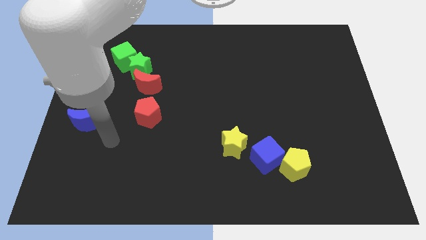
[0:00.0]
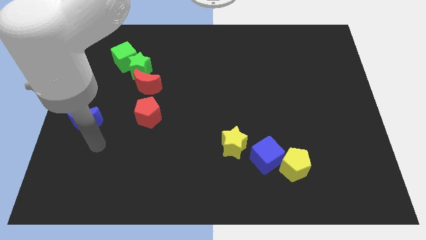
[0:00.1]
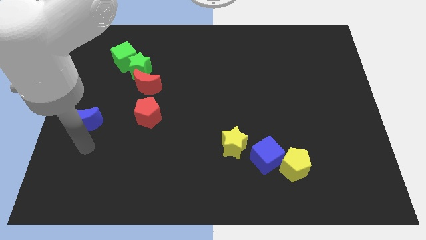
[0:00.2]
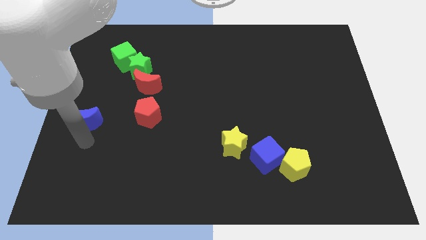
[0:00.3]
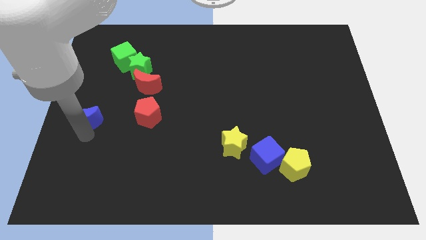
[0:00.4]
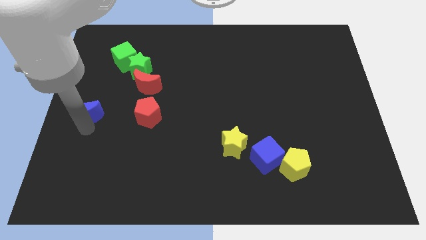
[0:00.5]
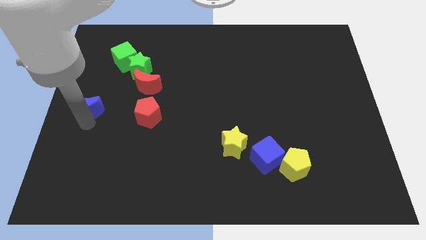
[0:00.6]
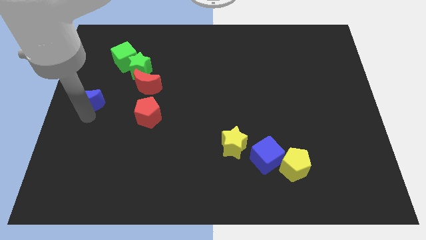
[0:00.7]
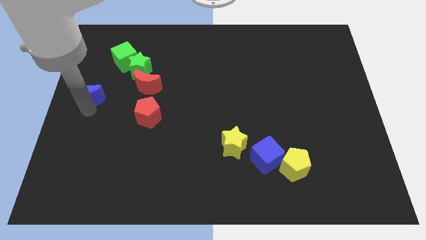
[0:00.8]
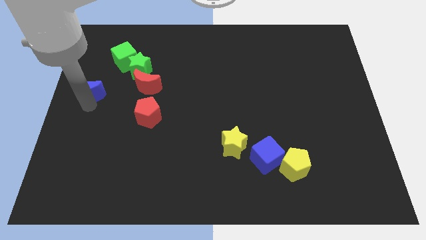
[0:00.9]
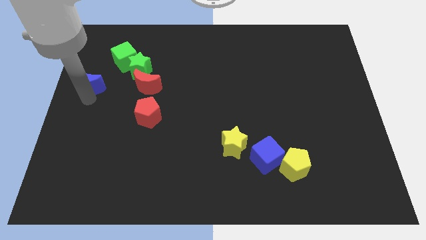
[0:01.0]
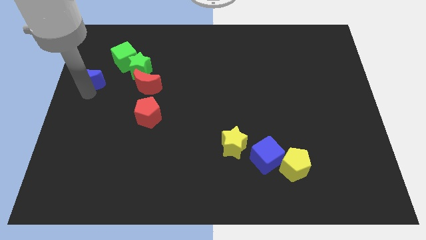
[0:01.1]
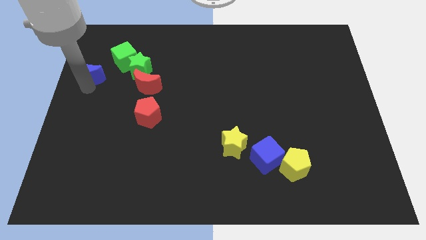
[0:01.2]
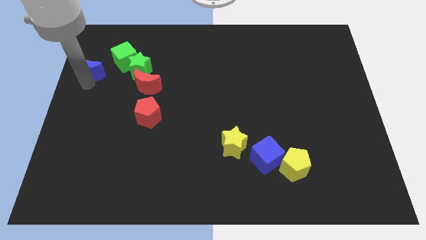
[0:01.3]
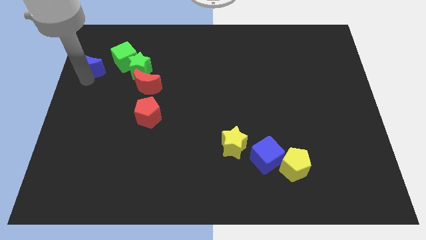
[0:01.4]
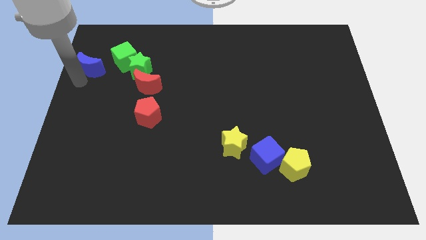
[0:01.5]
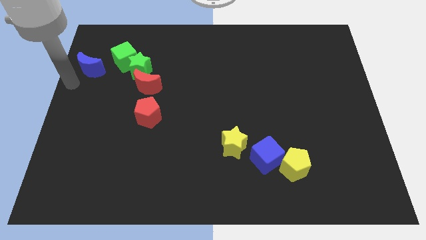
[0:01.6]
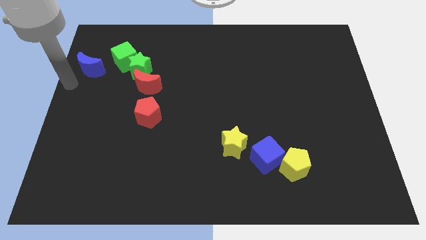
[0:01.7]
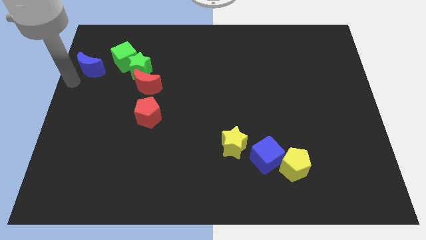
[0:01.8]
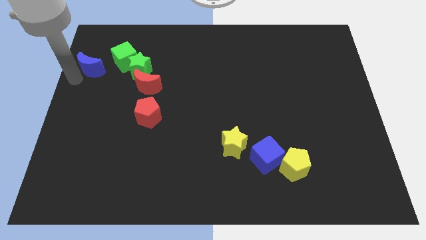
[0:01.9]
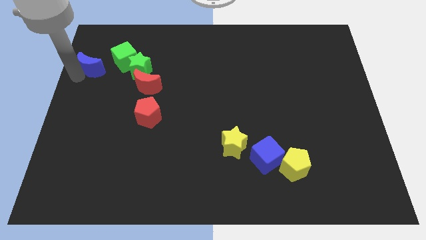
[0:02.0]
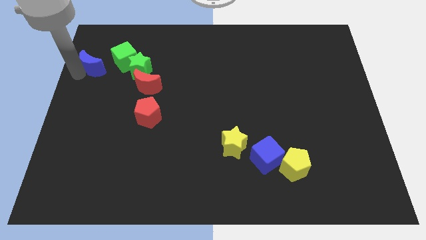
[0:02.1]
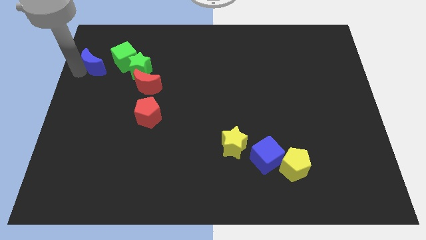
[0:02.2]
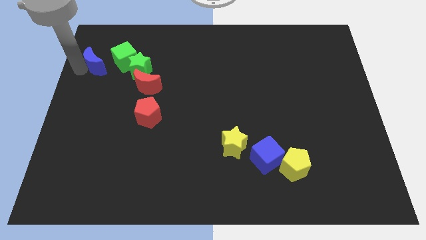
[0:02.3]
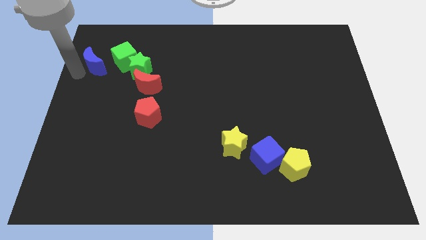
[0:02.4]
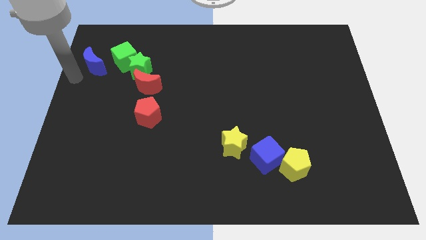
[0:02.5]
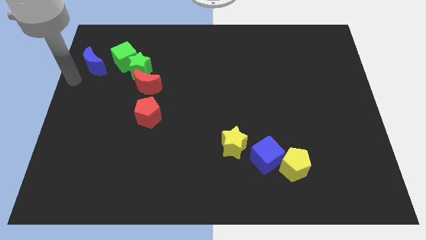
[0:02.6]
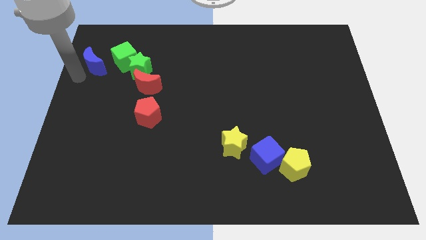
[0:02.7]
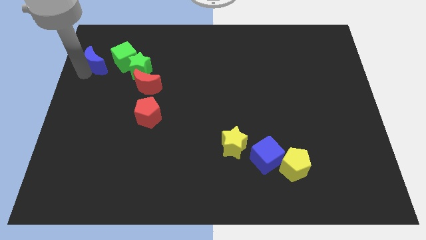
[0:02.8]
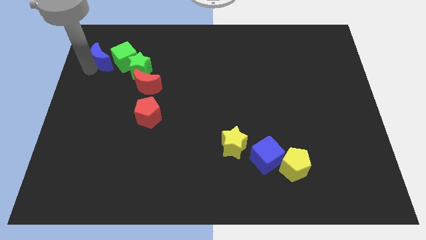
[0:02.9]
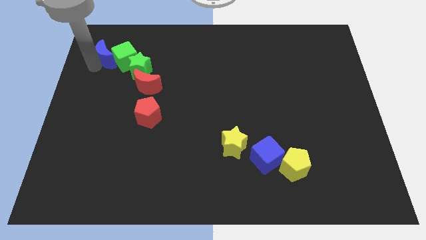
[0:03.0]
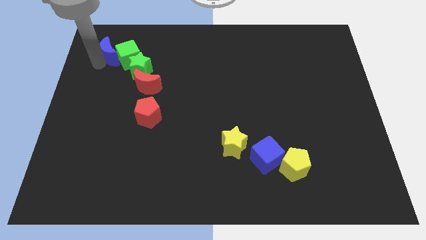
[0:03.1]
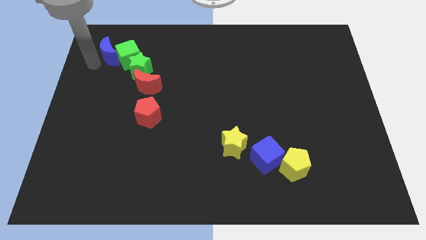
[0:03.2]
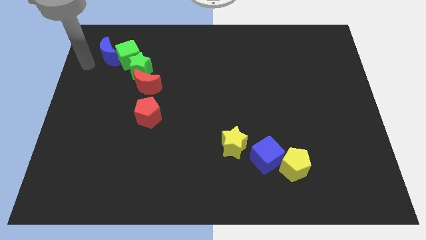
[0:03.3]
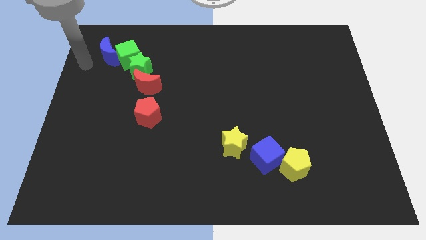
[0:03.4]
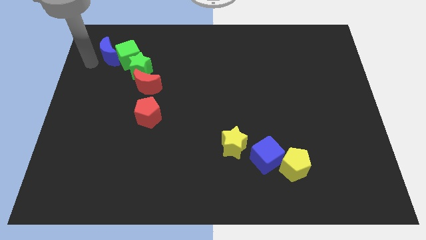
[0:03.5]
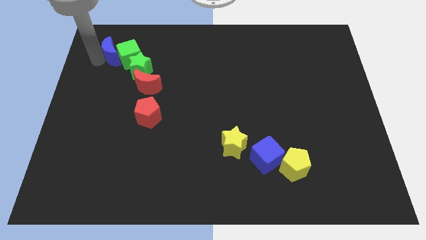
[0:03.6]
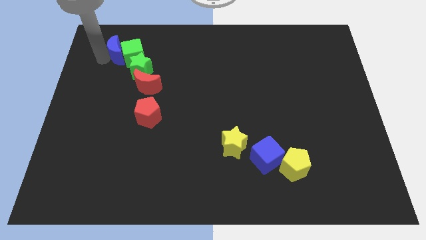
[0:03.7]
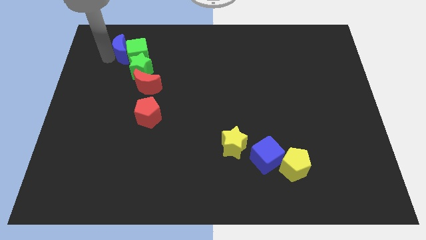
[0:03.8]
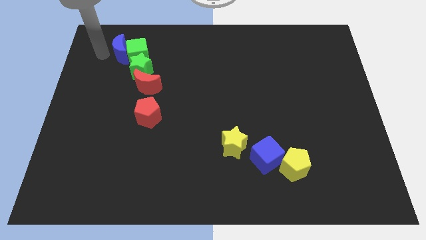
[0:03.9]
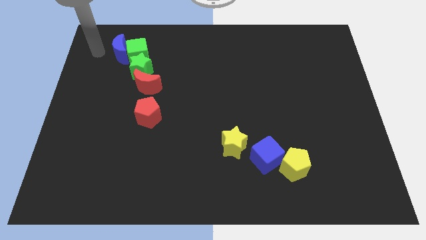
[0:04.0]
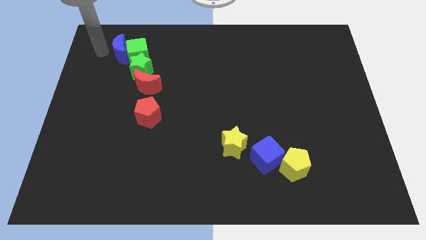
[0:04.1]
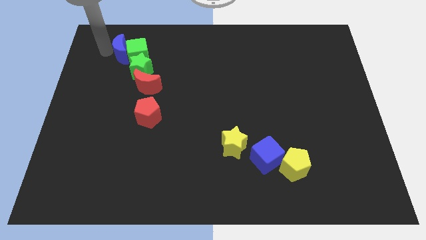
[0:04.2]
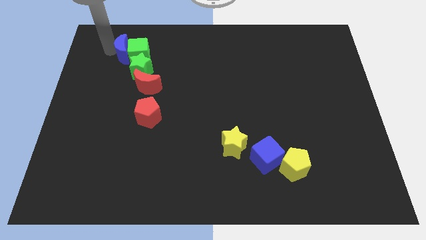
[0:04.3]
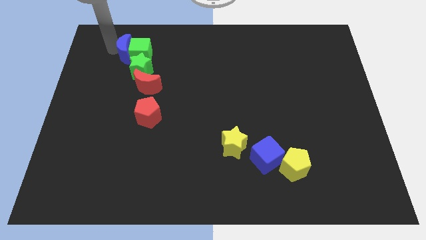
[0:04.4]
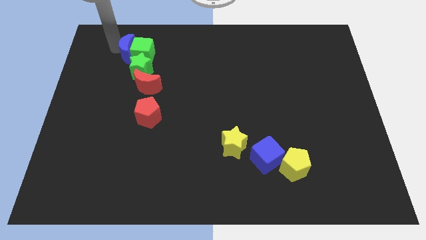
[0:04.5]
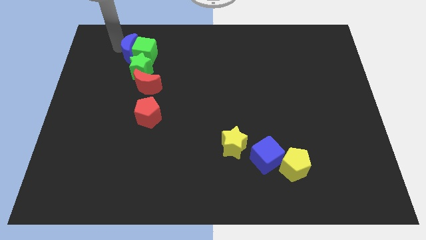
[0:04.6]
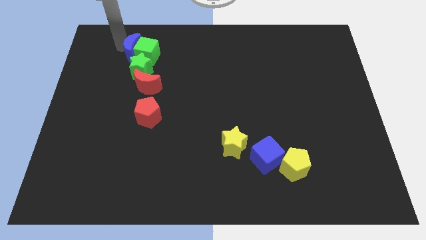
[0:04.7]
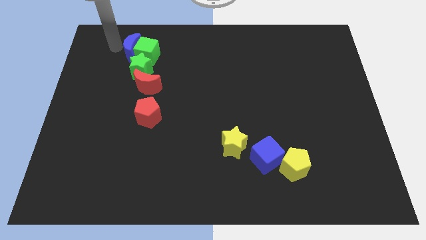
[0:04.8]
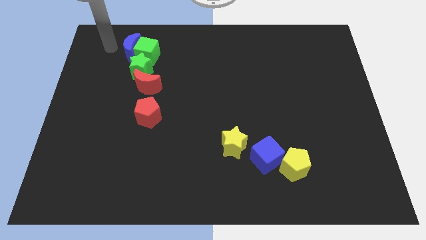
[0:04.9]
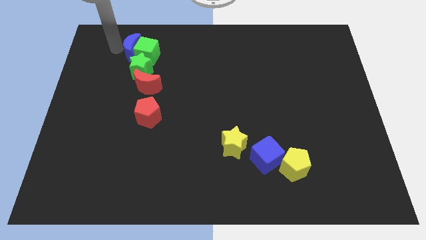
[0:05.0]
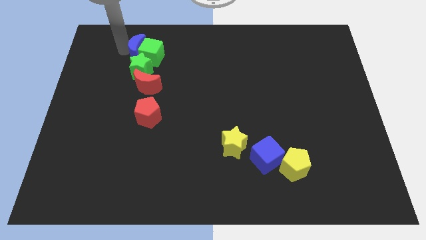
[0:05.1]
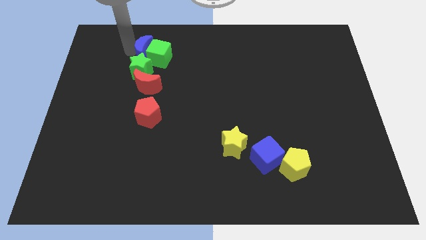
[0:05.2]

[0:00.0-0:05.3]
push the blue moon diagonally up and to the right of the green star

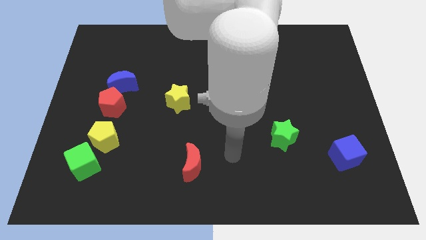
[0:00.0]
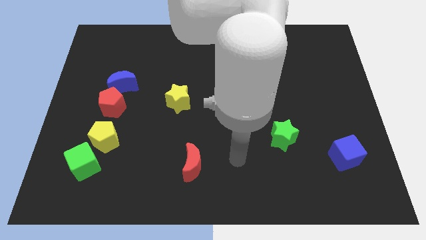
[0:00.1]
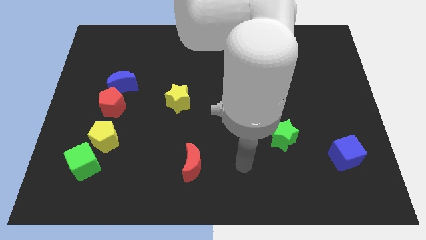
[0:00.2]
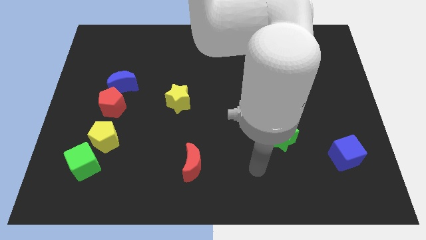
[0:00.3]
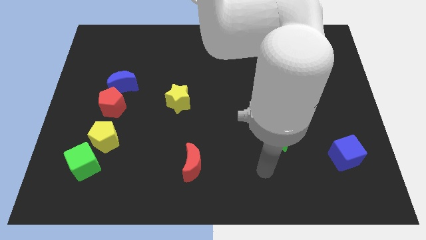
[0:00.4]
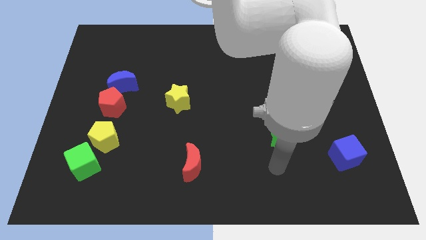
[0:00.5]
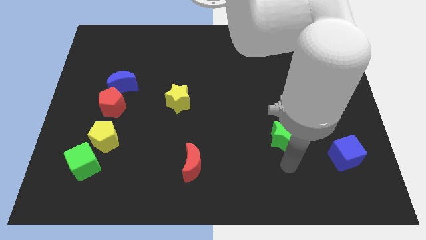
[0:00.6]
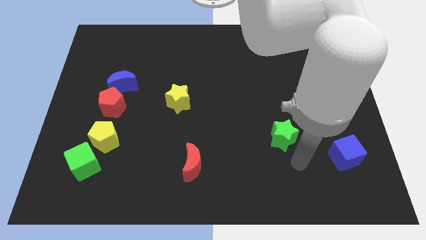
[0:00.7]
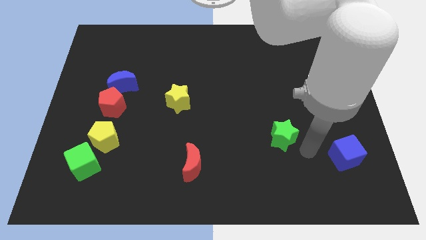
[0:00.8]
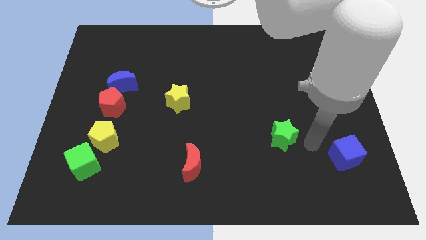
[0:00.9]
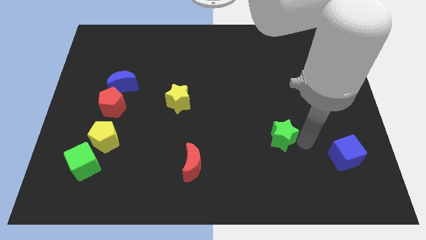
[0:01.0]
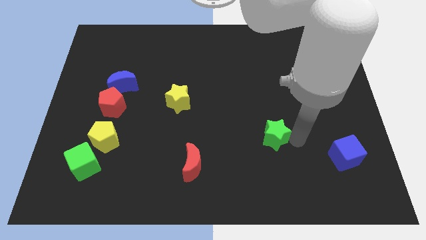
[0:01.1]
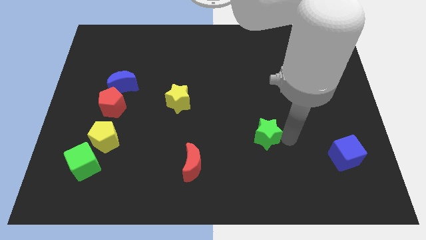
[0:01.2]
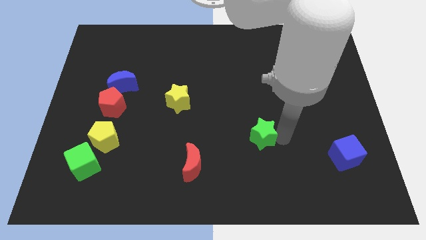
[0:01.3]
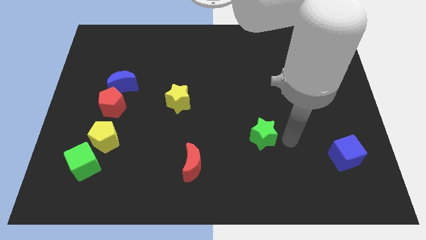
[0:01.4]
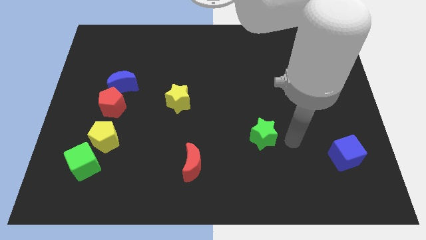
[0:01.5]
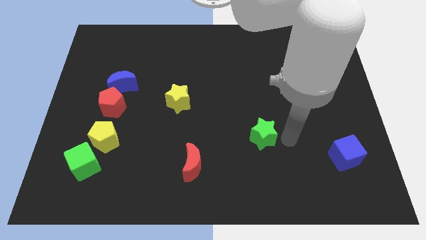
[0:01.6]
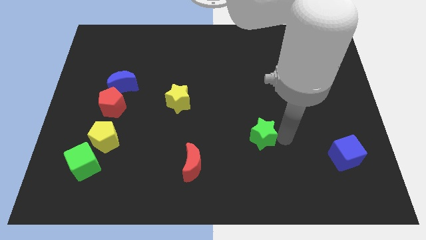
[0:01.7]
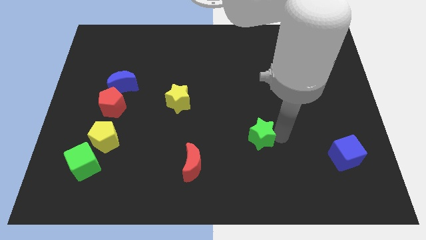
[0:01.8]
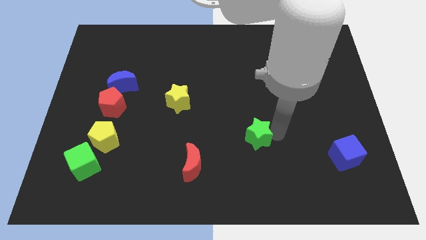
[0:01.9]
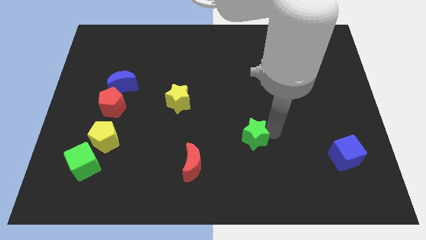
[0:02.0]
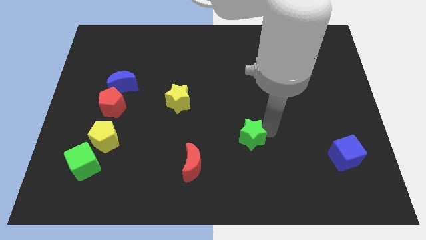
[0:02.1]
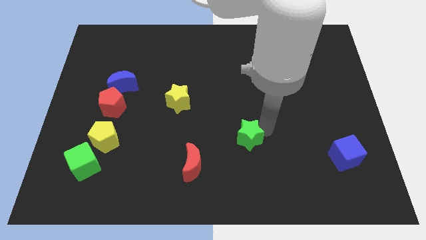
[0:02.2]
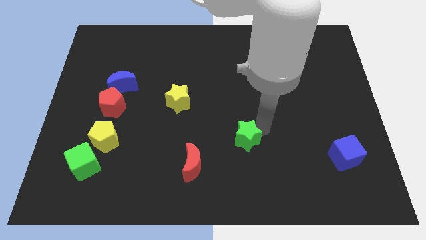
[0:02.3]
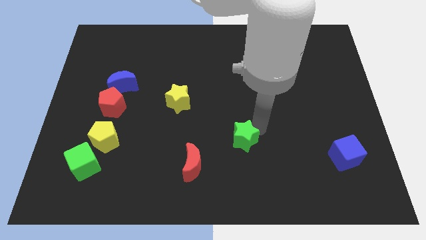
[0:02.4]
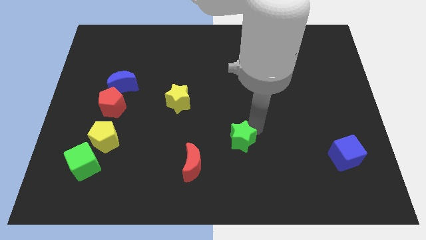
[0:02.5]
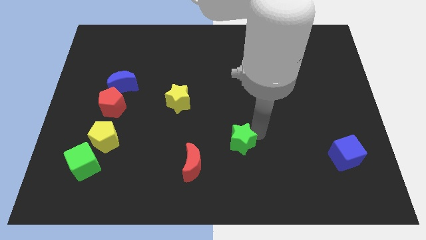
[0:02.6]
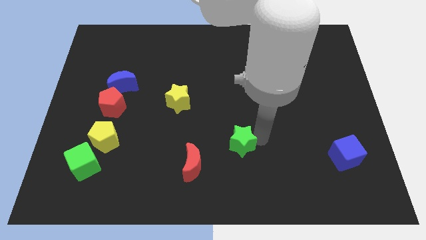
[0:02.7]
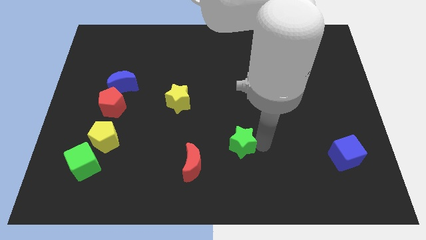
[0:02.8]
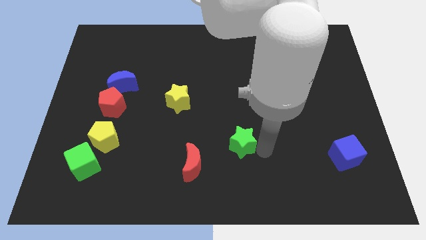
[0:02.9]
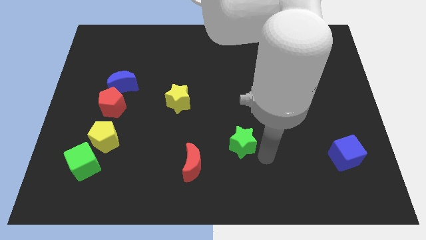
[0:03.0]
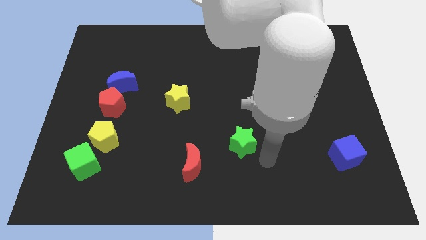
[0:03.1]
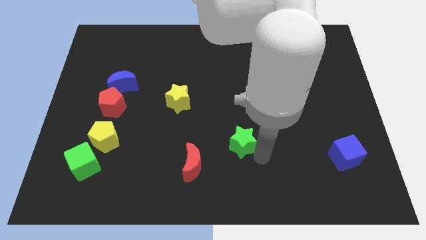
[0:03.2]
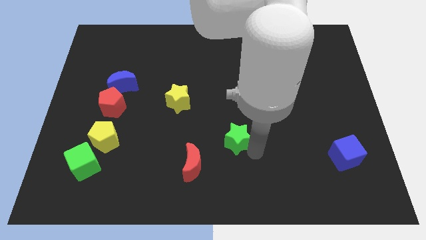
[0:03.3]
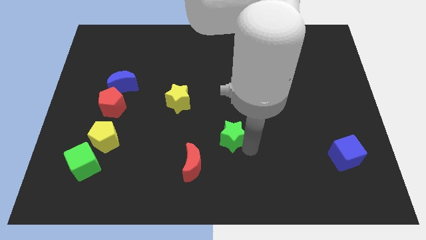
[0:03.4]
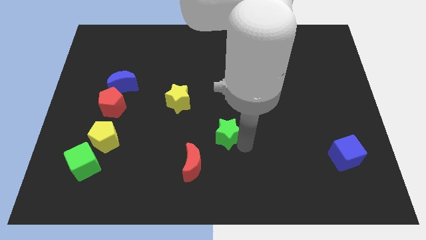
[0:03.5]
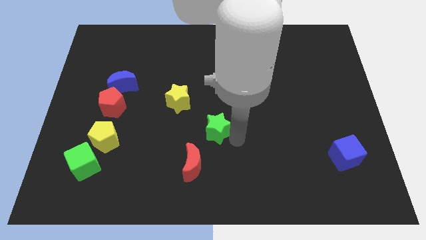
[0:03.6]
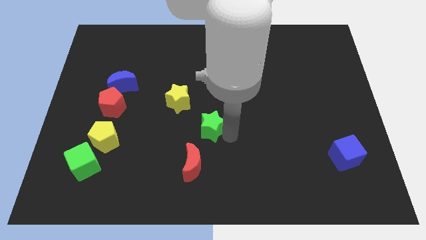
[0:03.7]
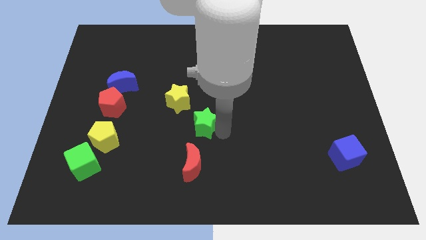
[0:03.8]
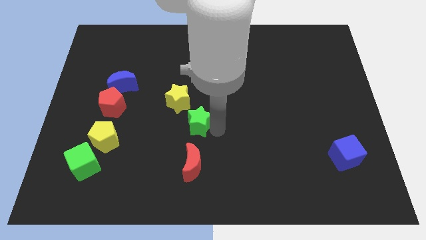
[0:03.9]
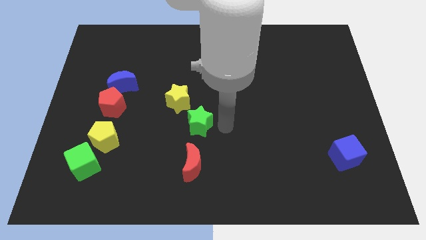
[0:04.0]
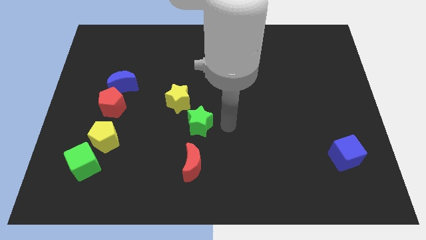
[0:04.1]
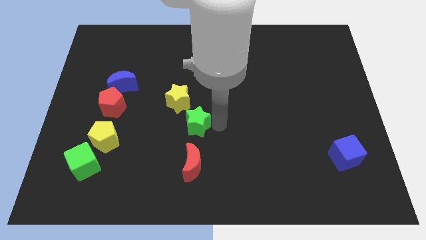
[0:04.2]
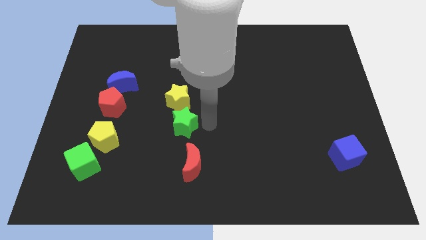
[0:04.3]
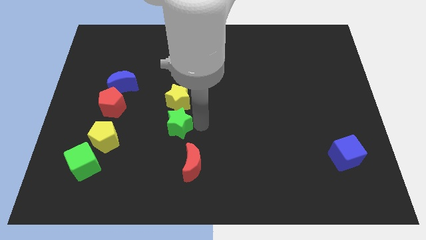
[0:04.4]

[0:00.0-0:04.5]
put the green star to the bottom left of the yellow star
